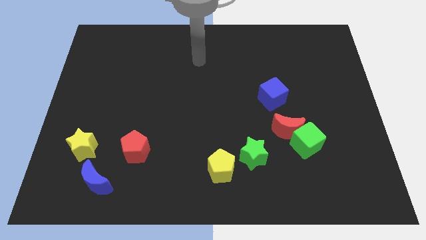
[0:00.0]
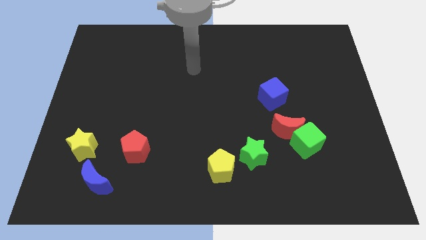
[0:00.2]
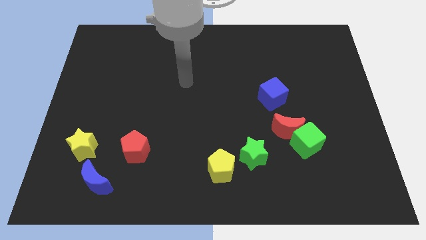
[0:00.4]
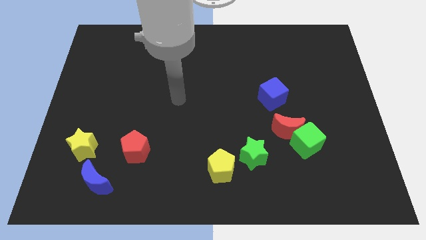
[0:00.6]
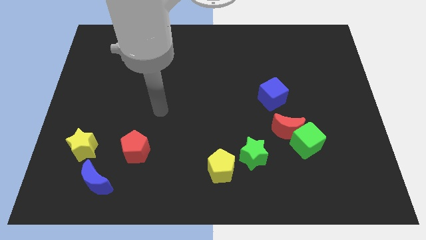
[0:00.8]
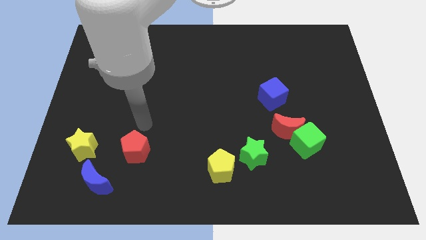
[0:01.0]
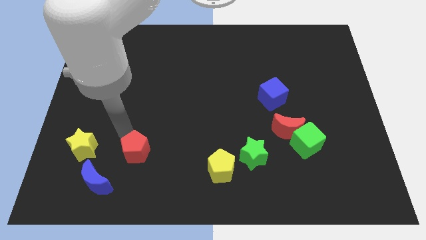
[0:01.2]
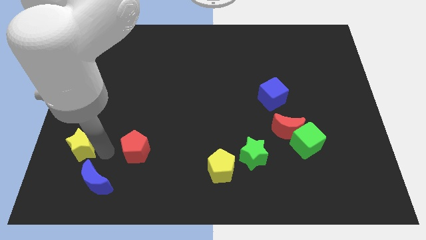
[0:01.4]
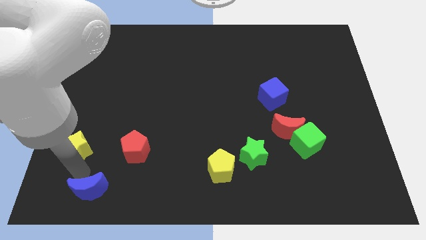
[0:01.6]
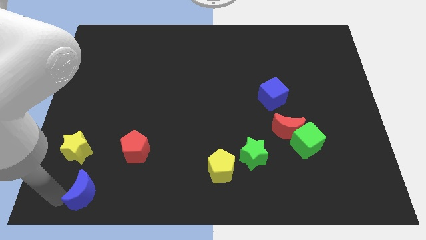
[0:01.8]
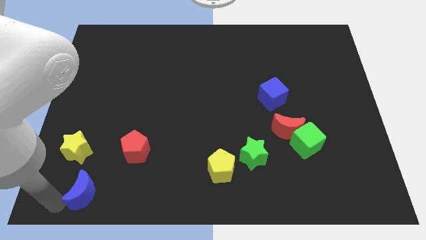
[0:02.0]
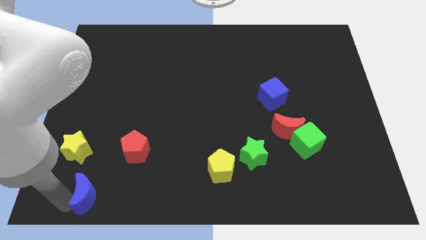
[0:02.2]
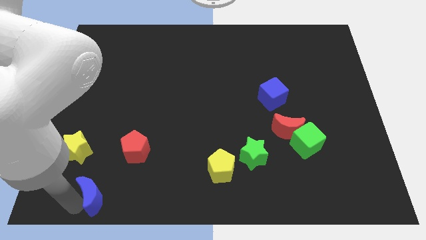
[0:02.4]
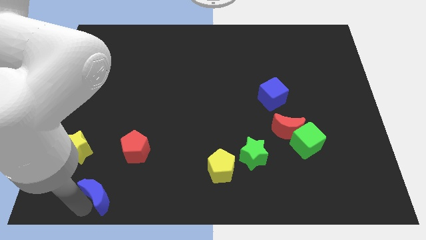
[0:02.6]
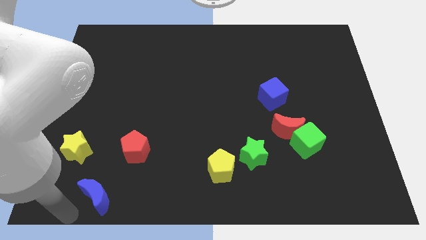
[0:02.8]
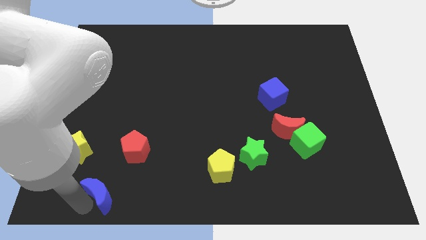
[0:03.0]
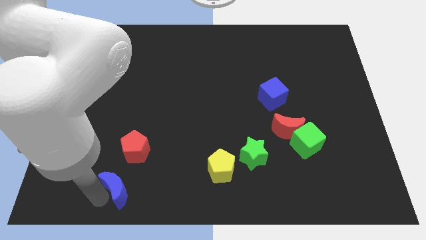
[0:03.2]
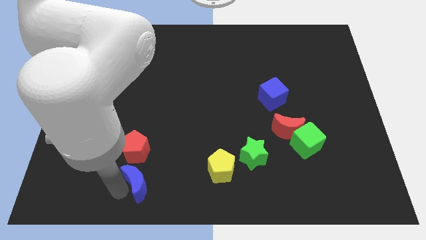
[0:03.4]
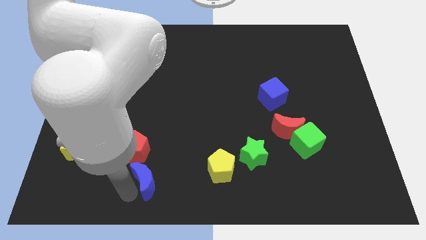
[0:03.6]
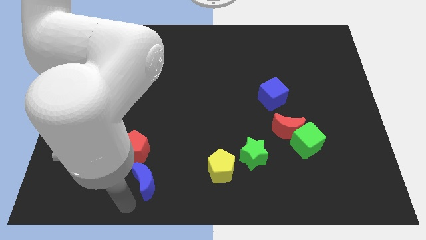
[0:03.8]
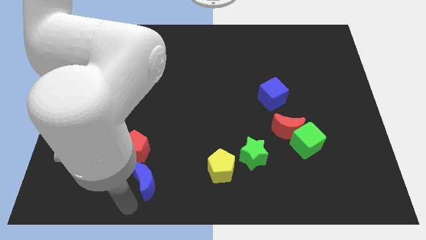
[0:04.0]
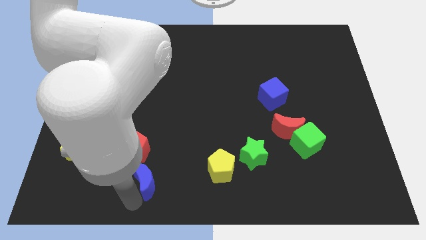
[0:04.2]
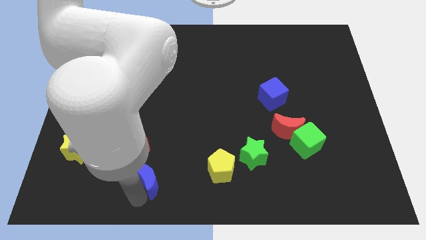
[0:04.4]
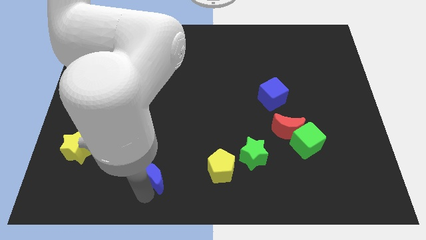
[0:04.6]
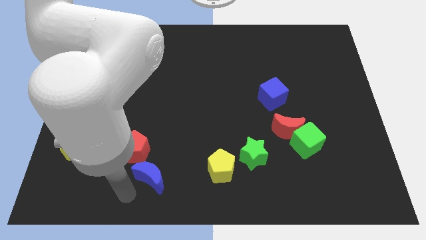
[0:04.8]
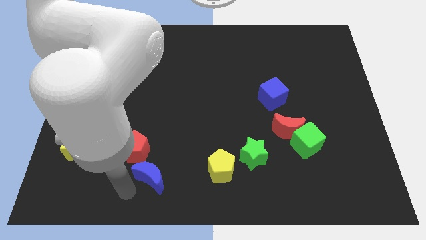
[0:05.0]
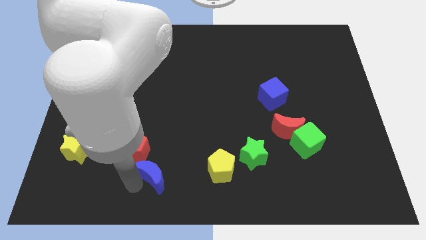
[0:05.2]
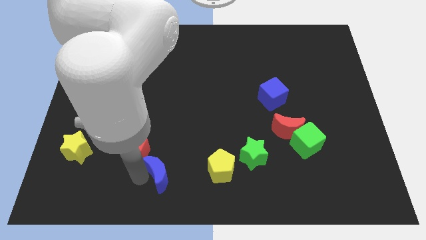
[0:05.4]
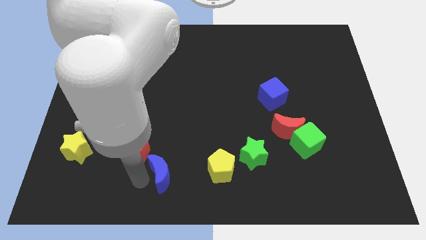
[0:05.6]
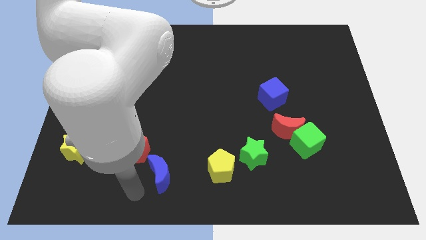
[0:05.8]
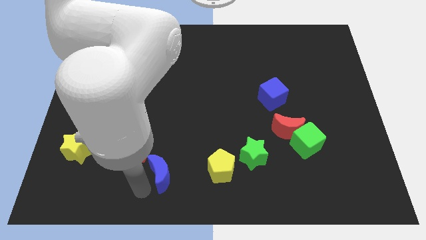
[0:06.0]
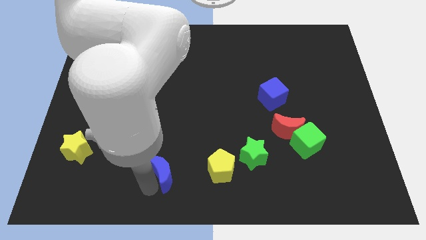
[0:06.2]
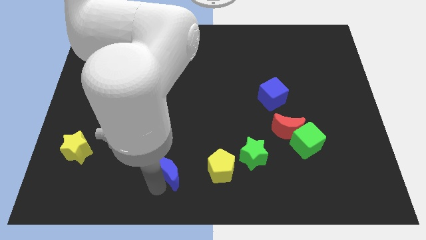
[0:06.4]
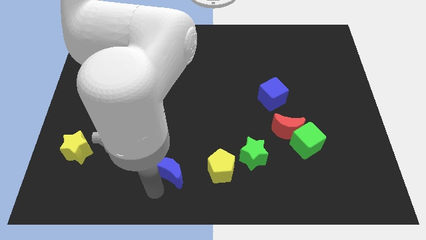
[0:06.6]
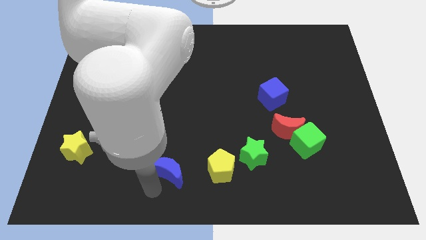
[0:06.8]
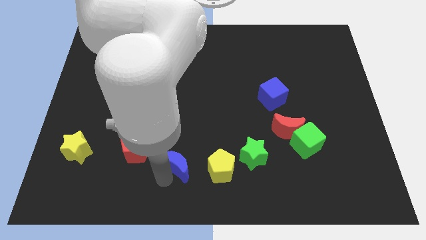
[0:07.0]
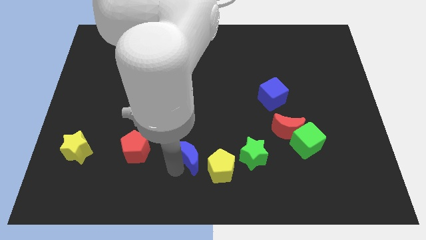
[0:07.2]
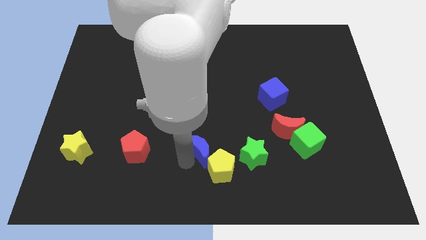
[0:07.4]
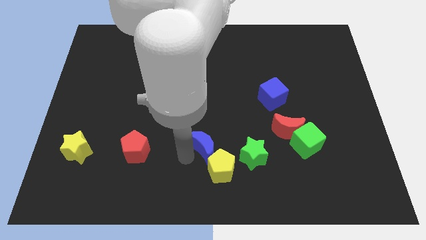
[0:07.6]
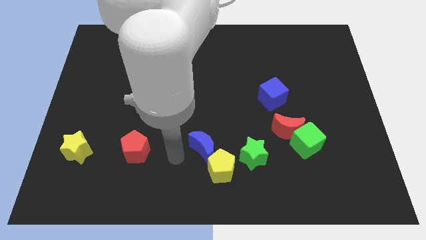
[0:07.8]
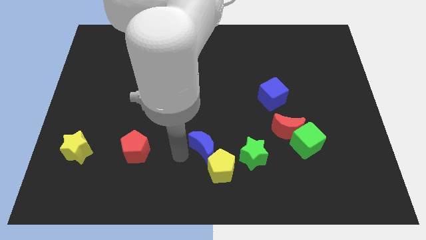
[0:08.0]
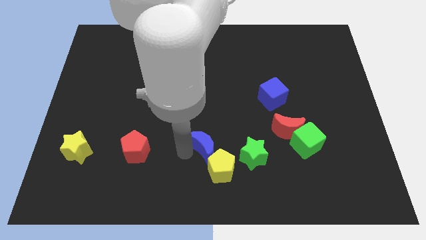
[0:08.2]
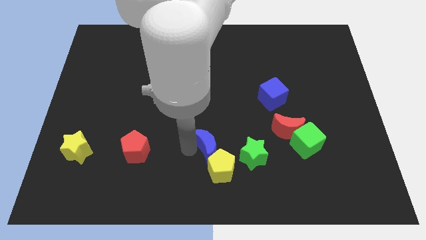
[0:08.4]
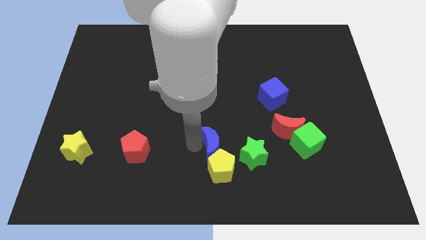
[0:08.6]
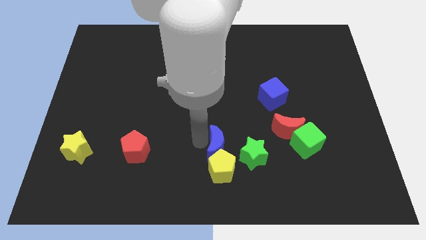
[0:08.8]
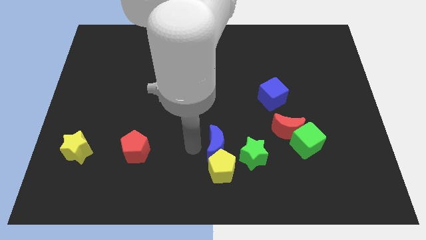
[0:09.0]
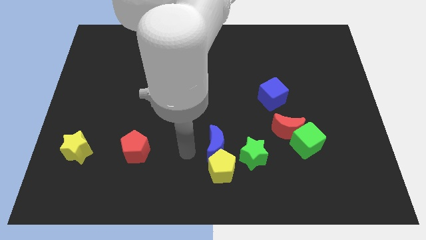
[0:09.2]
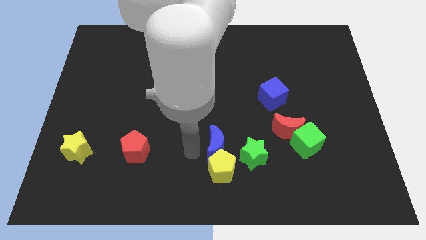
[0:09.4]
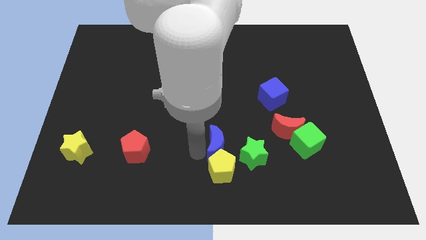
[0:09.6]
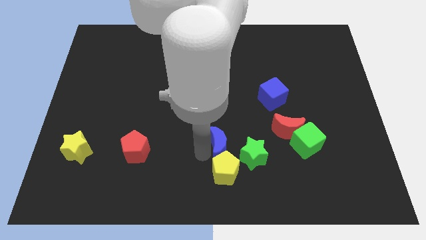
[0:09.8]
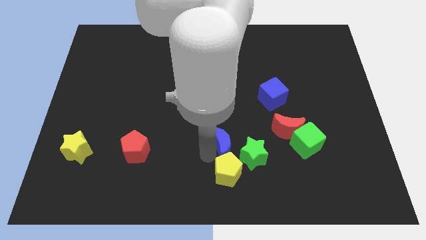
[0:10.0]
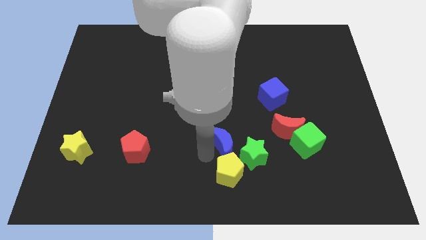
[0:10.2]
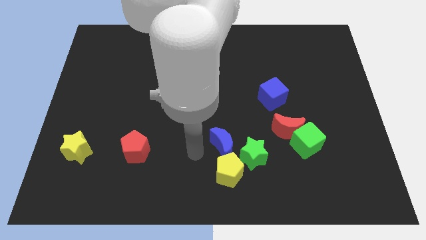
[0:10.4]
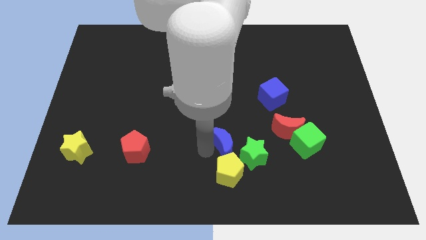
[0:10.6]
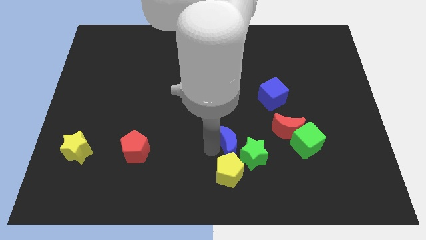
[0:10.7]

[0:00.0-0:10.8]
move the blue moon close to the green star

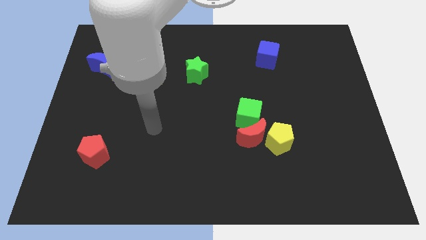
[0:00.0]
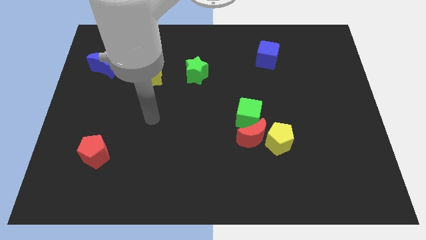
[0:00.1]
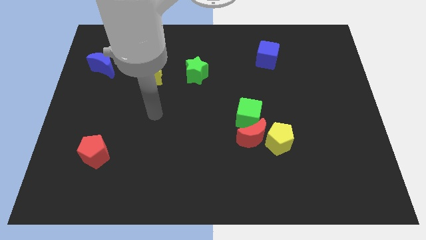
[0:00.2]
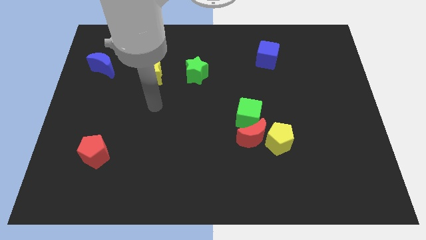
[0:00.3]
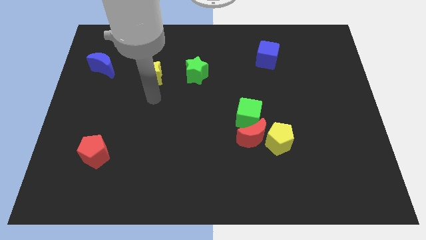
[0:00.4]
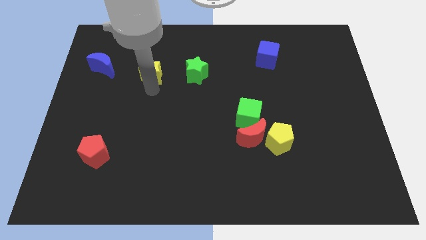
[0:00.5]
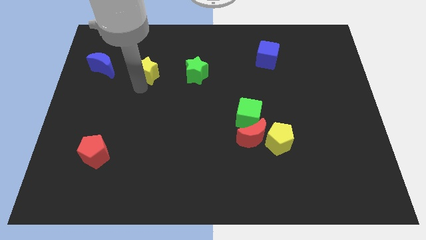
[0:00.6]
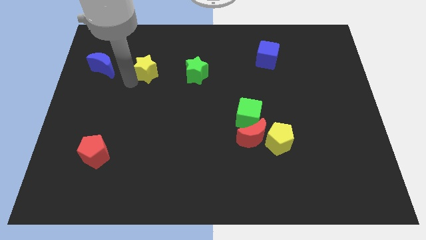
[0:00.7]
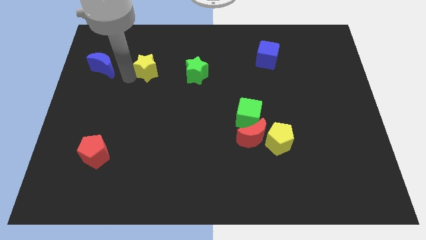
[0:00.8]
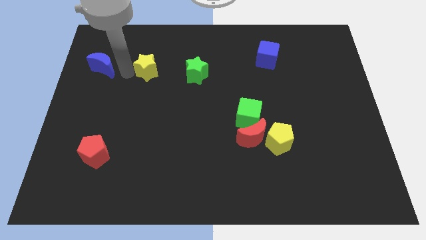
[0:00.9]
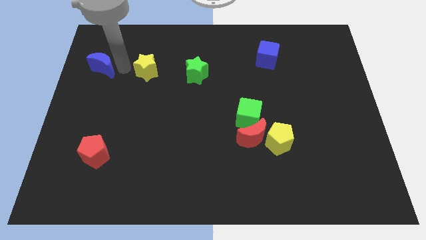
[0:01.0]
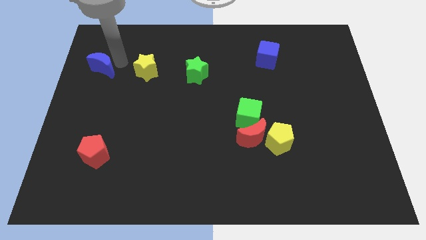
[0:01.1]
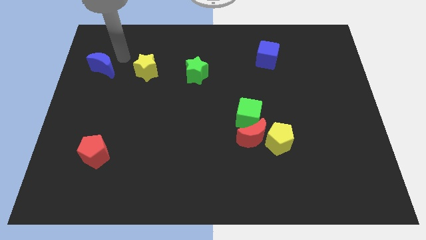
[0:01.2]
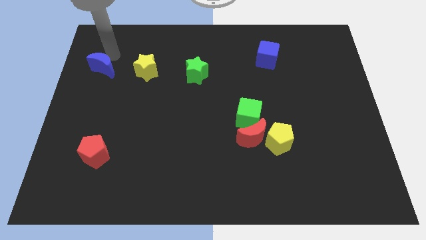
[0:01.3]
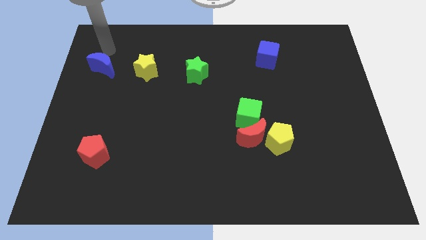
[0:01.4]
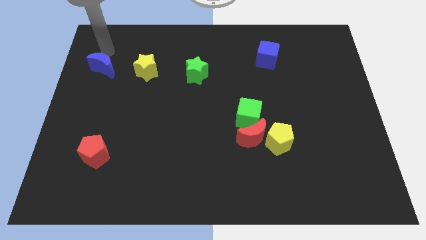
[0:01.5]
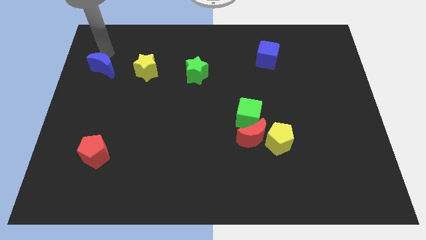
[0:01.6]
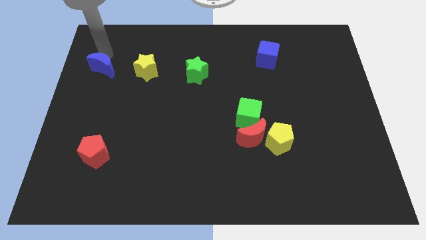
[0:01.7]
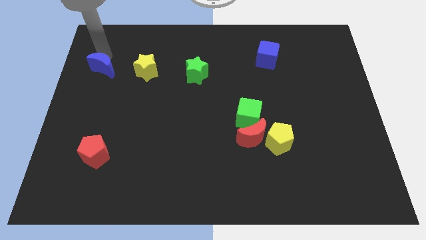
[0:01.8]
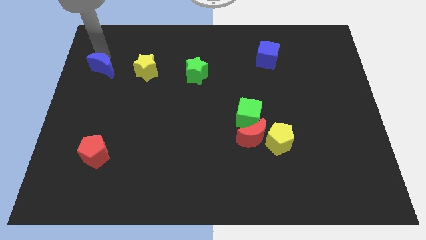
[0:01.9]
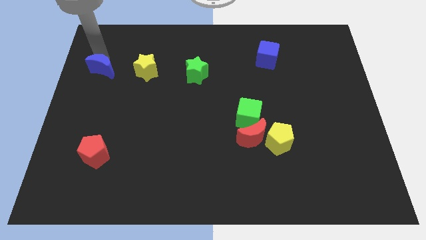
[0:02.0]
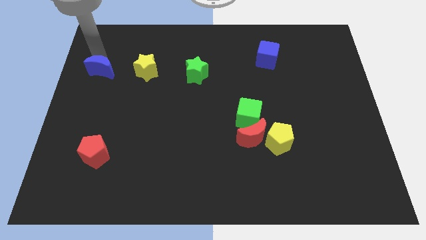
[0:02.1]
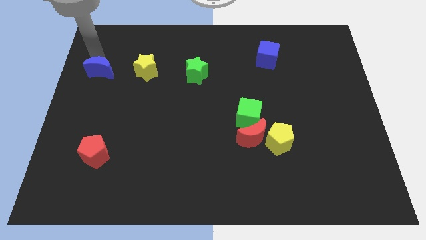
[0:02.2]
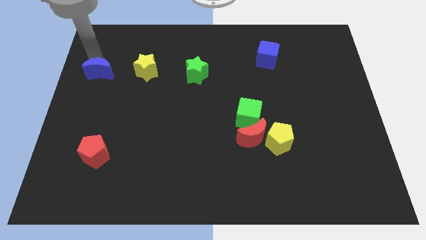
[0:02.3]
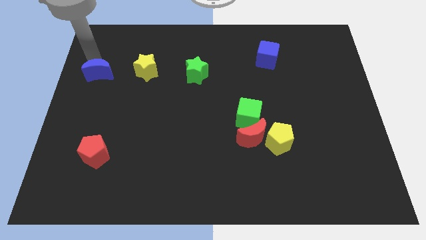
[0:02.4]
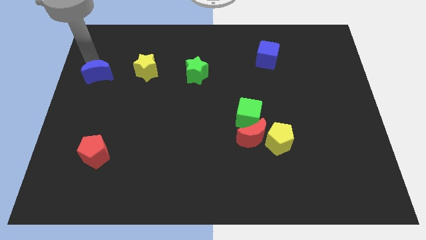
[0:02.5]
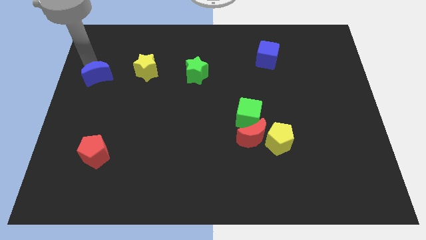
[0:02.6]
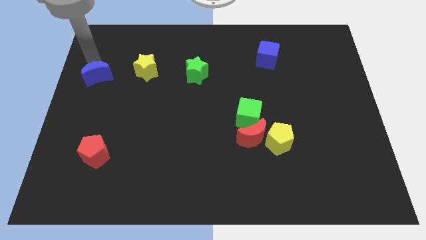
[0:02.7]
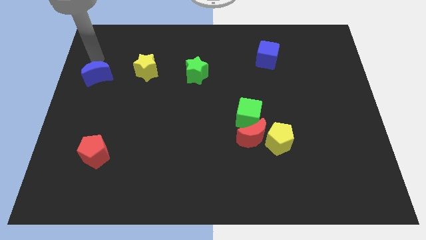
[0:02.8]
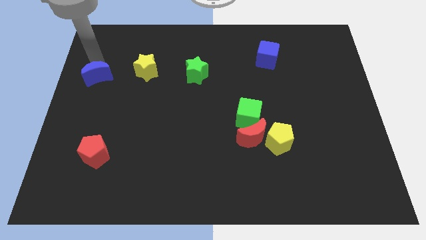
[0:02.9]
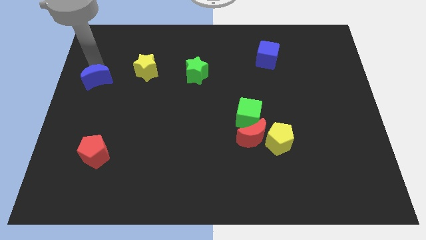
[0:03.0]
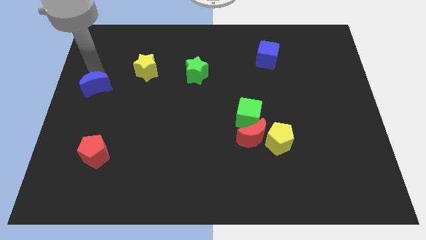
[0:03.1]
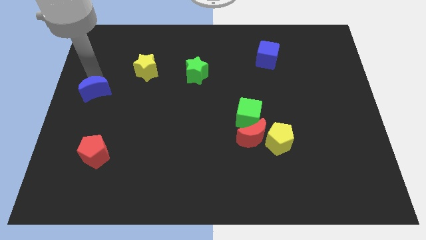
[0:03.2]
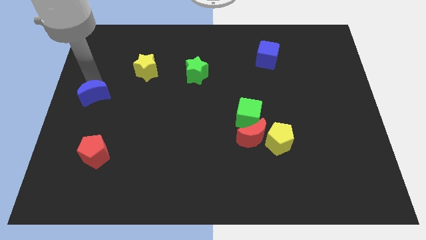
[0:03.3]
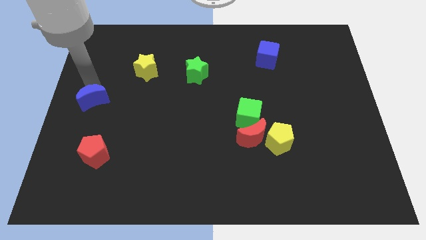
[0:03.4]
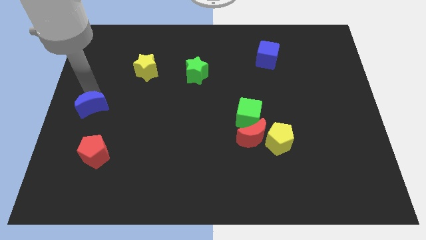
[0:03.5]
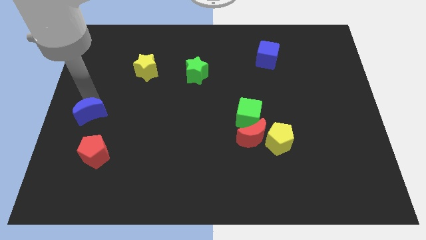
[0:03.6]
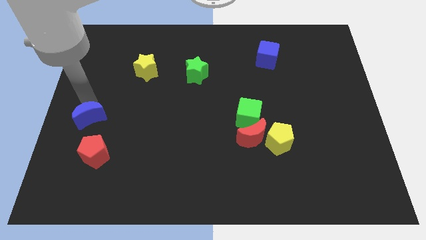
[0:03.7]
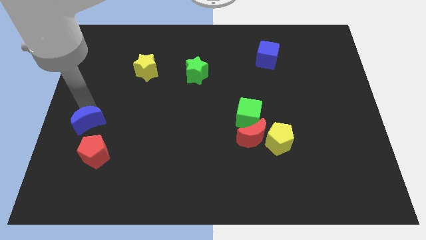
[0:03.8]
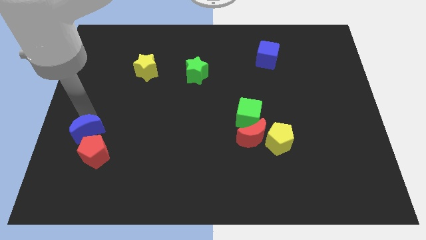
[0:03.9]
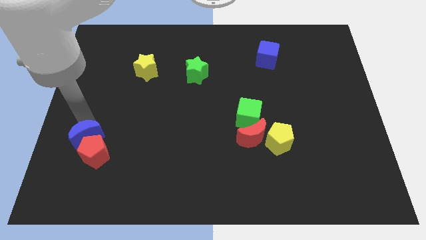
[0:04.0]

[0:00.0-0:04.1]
slide the blue moon next to the red pentagon
